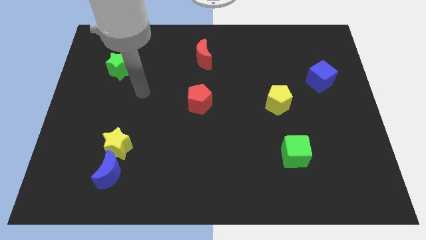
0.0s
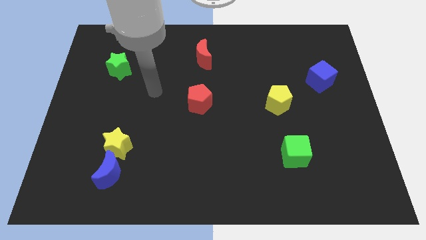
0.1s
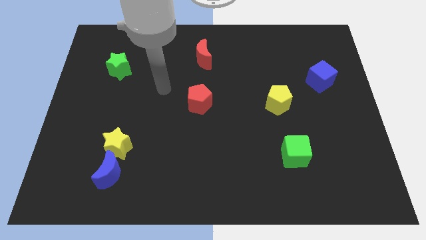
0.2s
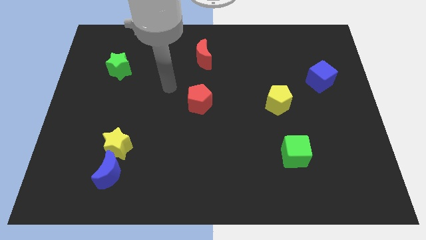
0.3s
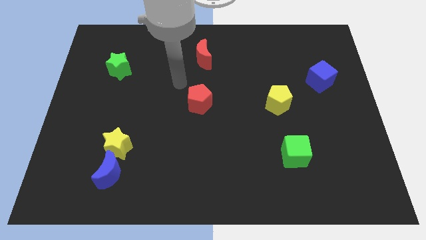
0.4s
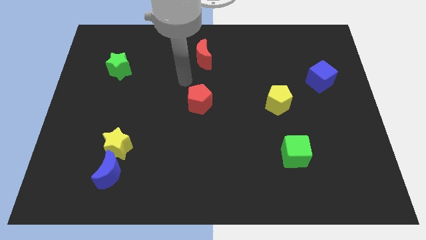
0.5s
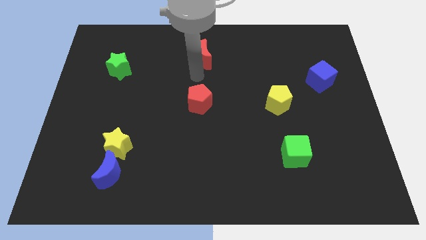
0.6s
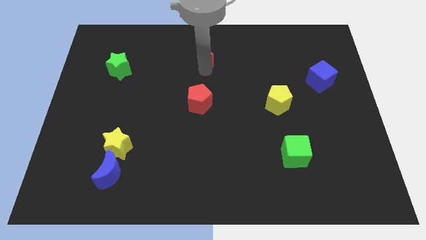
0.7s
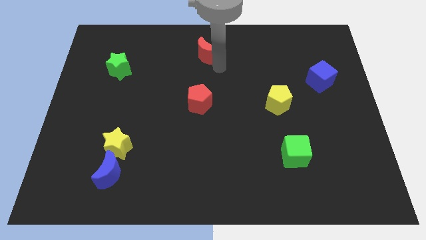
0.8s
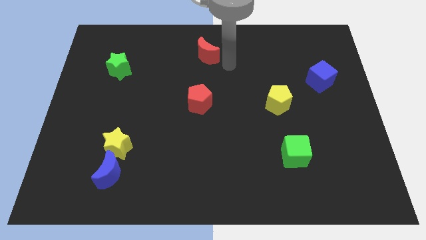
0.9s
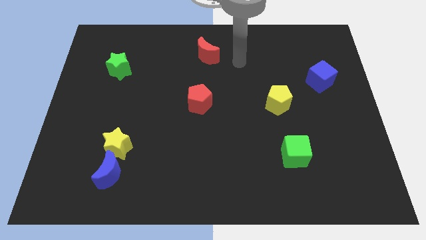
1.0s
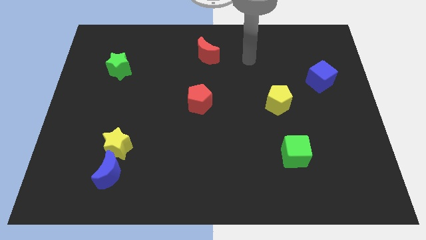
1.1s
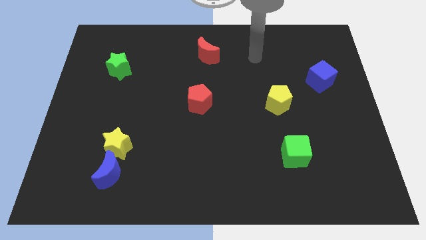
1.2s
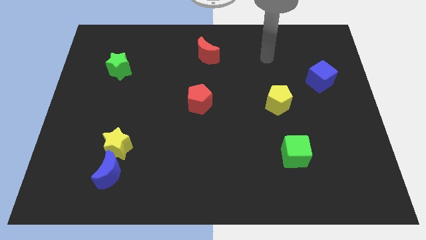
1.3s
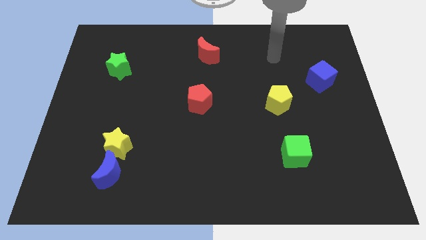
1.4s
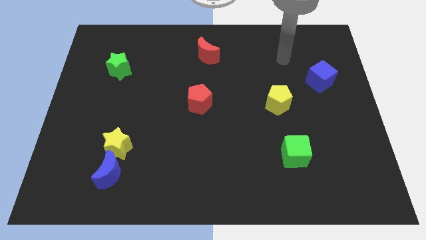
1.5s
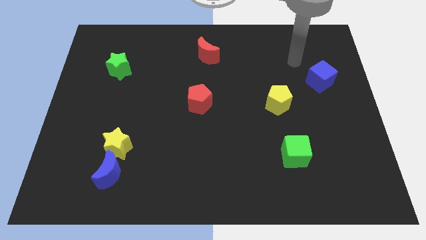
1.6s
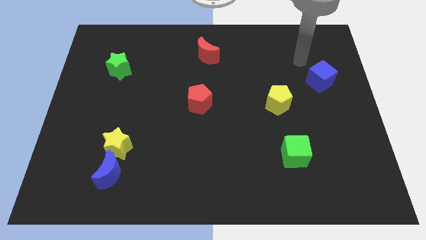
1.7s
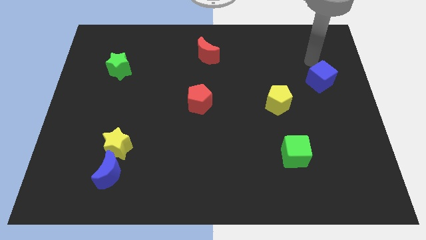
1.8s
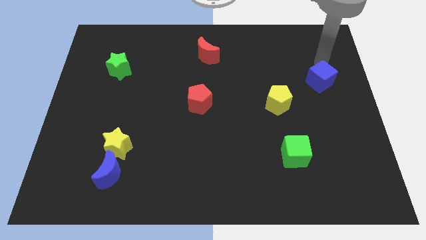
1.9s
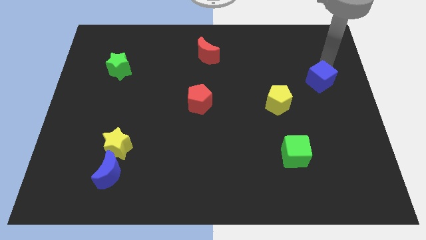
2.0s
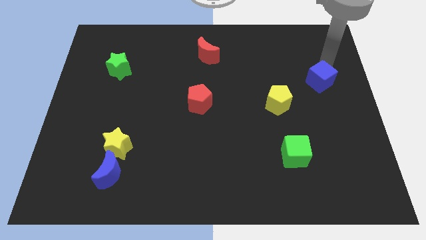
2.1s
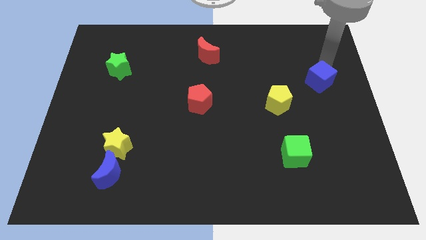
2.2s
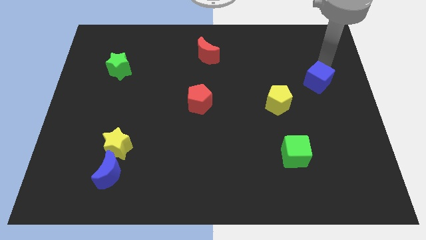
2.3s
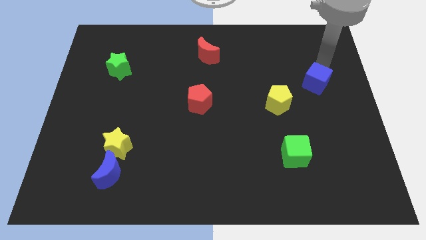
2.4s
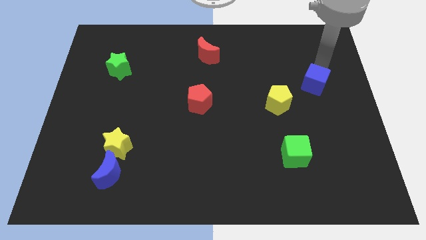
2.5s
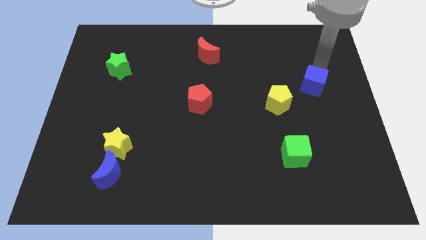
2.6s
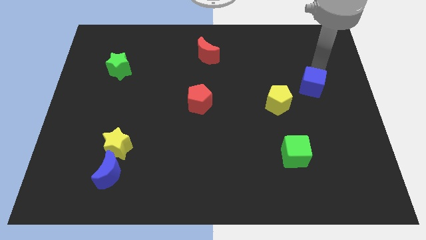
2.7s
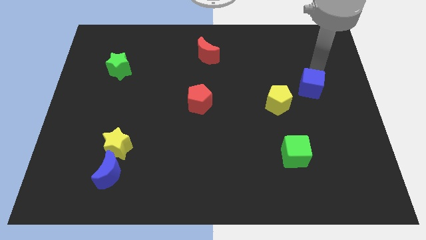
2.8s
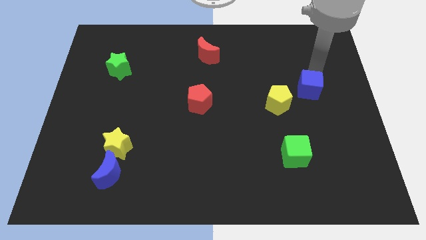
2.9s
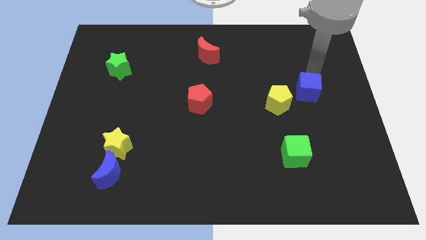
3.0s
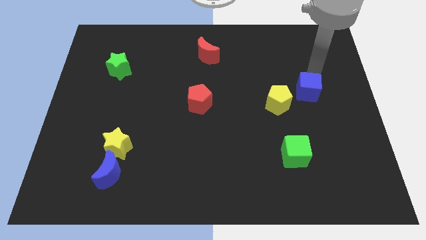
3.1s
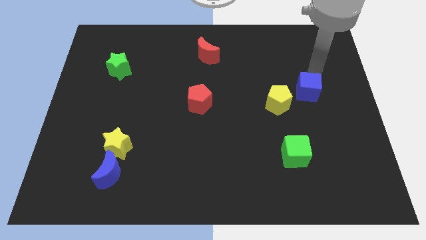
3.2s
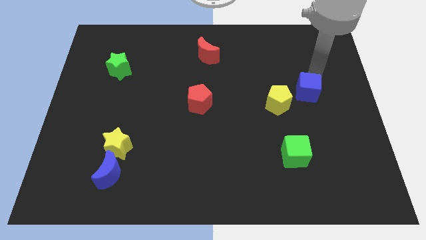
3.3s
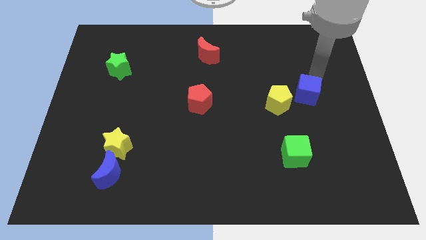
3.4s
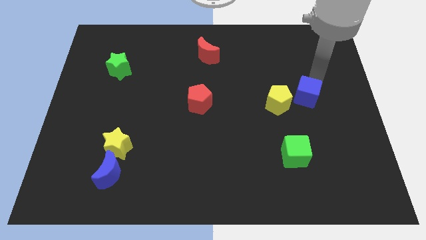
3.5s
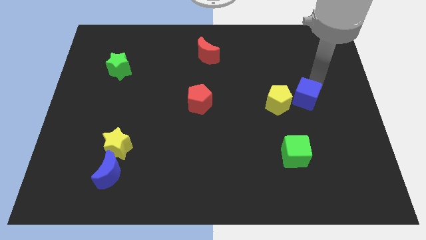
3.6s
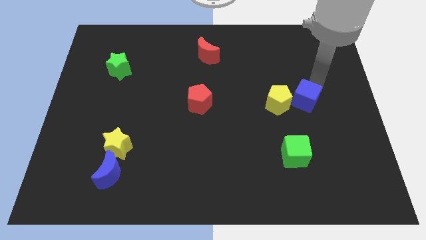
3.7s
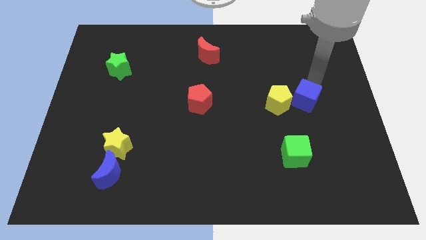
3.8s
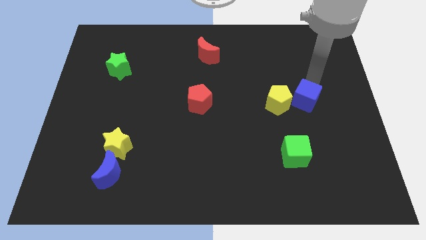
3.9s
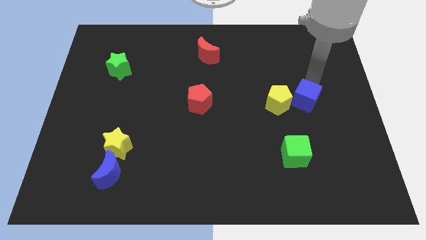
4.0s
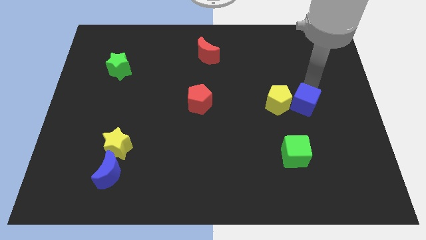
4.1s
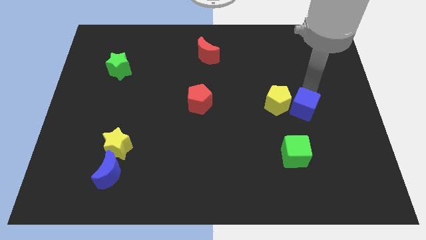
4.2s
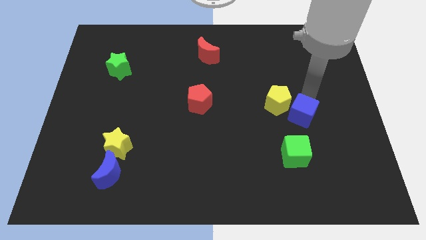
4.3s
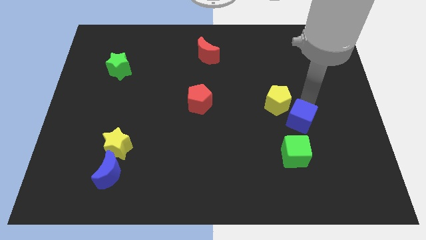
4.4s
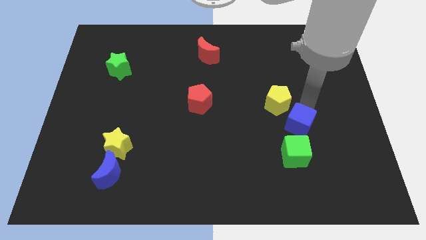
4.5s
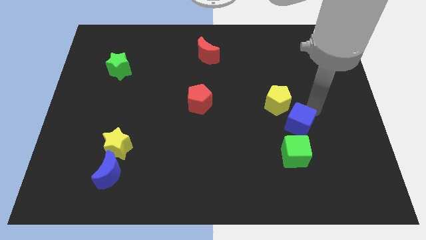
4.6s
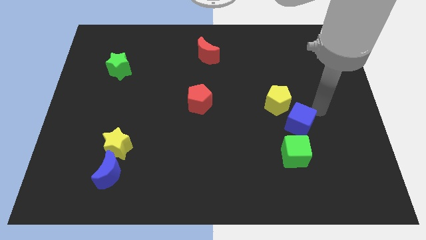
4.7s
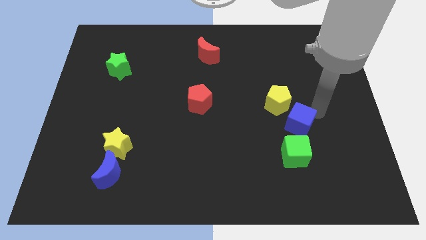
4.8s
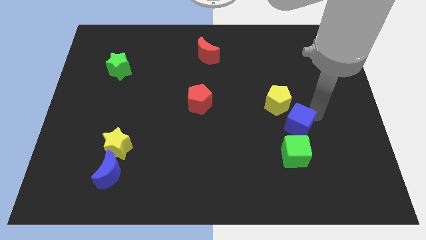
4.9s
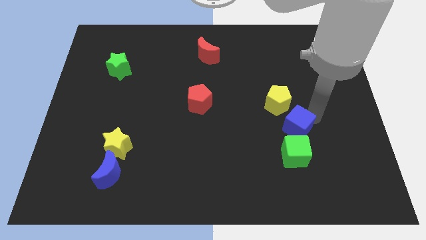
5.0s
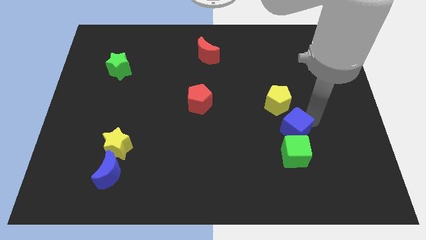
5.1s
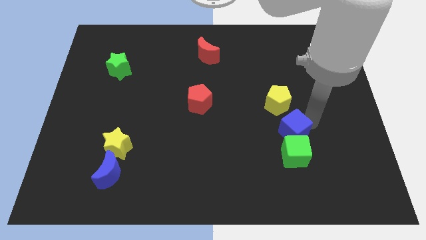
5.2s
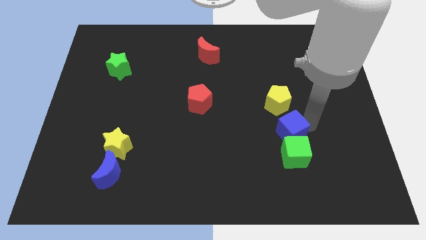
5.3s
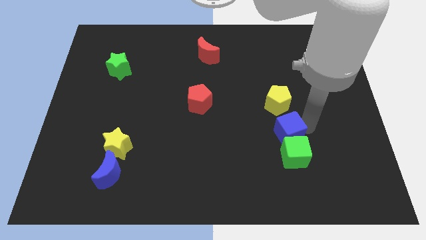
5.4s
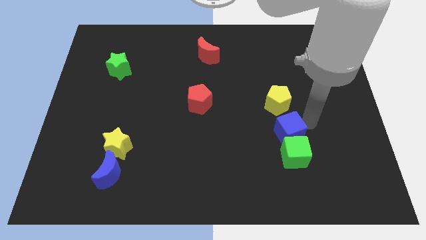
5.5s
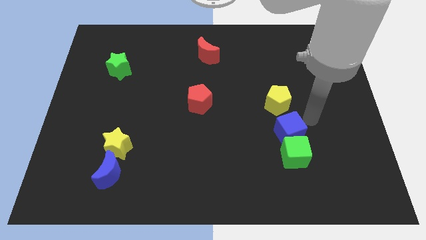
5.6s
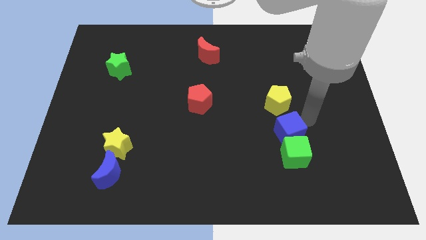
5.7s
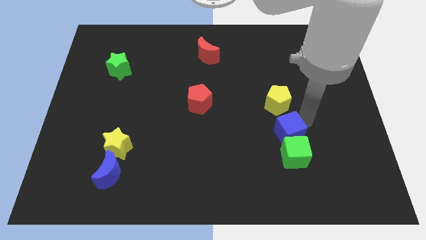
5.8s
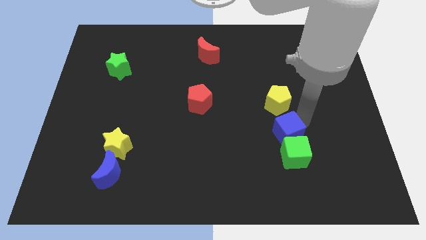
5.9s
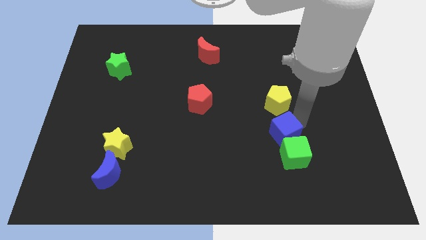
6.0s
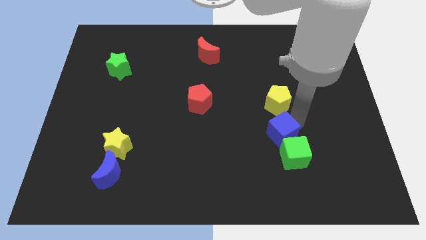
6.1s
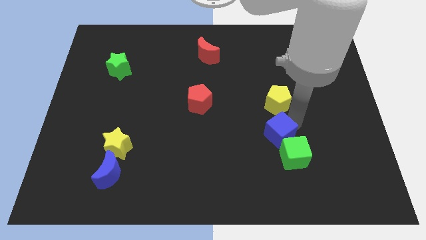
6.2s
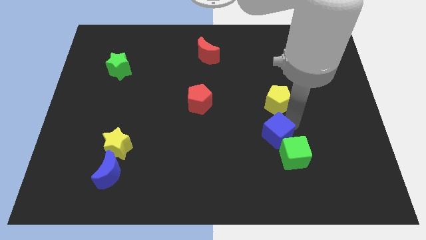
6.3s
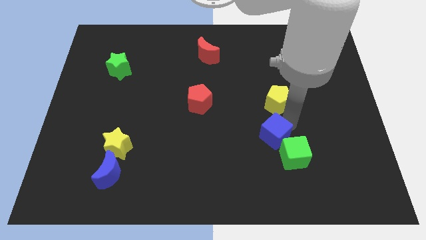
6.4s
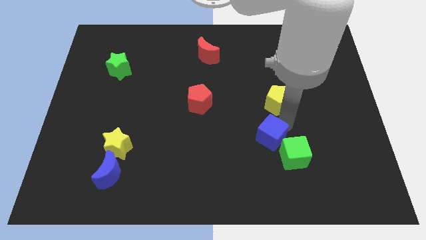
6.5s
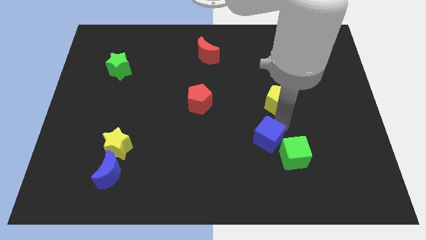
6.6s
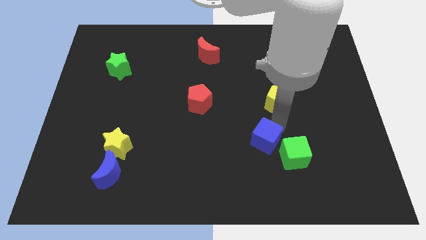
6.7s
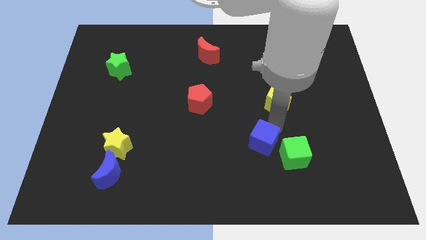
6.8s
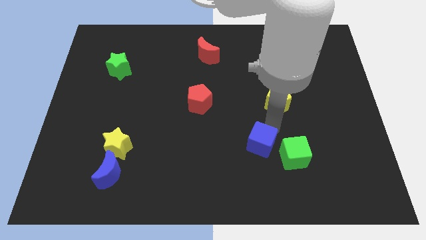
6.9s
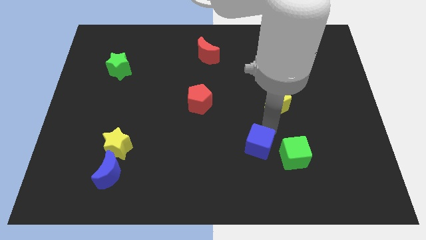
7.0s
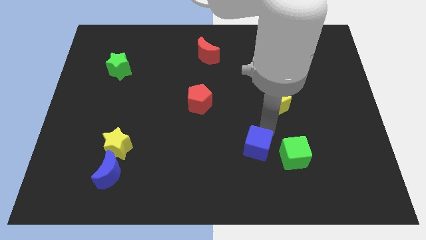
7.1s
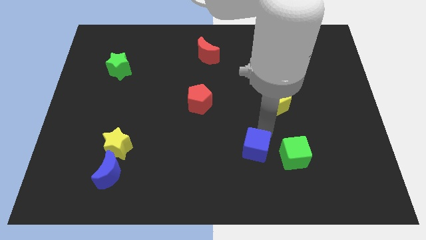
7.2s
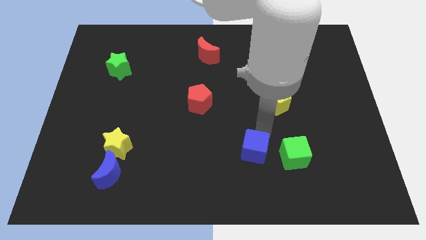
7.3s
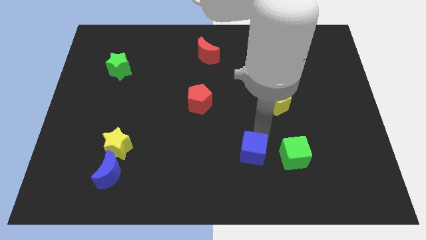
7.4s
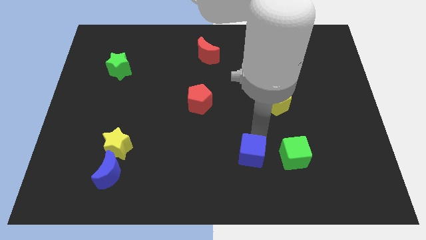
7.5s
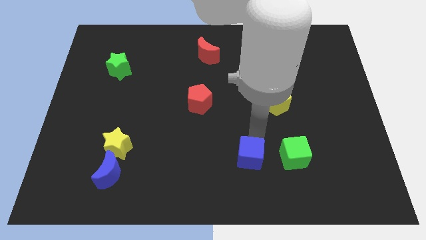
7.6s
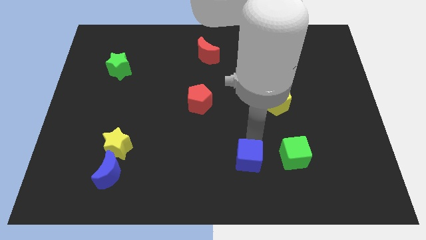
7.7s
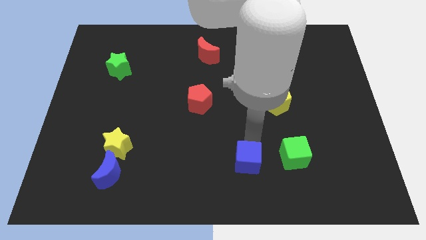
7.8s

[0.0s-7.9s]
push the blue cube to the bottom side
